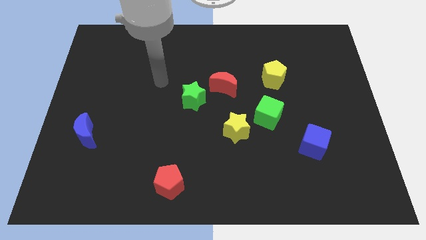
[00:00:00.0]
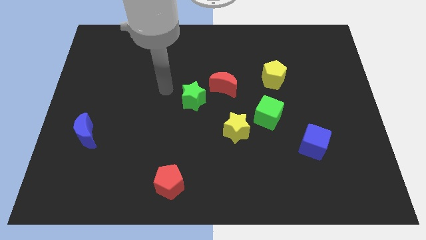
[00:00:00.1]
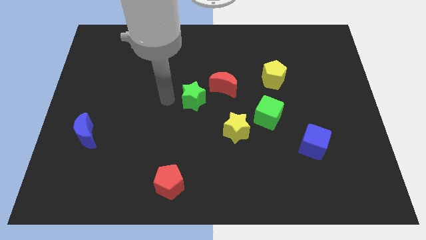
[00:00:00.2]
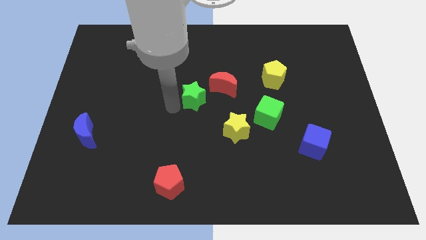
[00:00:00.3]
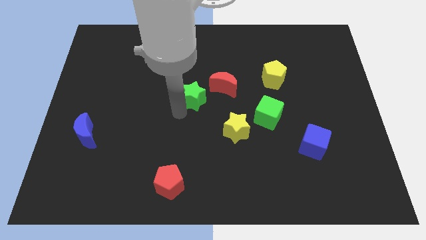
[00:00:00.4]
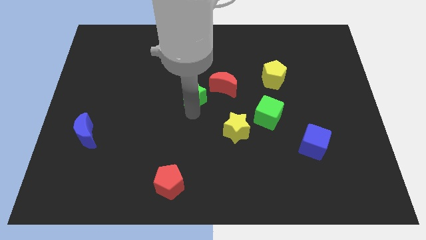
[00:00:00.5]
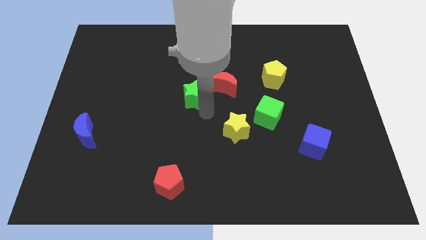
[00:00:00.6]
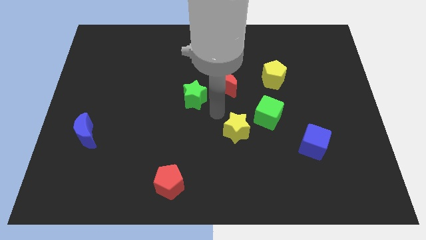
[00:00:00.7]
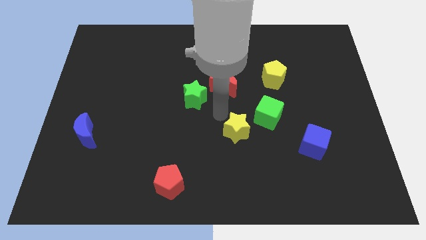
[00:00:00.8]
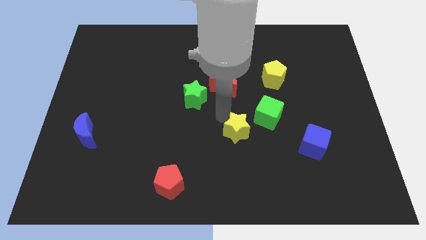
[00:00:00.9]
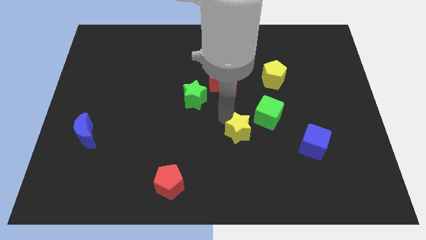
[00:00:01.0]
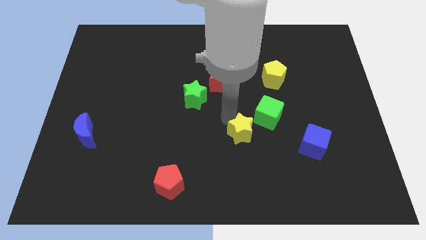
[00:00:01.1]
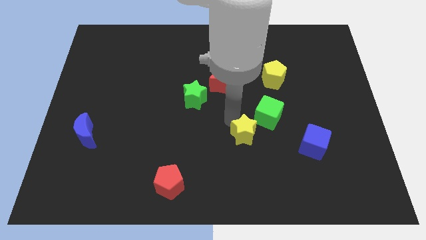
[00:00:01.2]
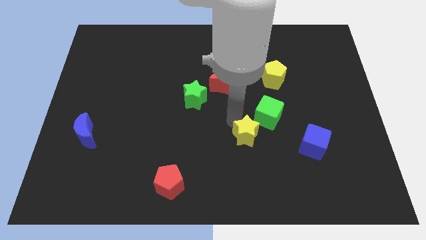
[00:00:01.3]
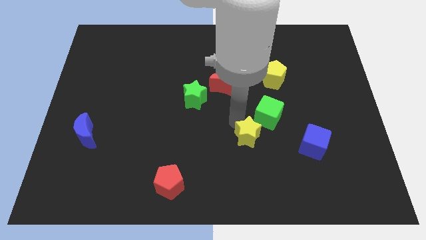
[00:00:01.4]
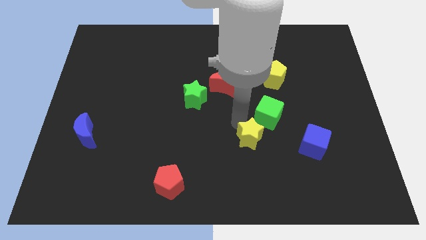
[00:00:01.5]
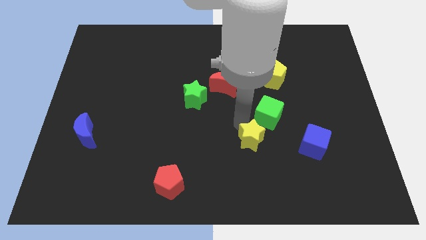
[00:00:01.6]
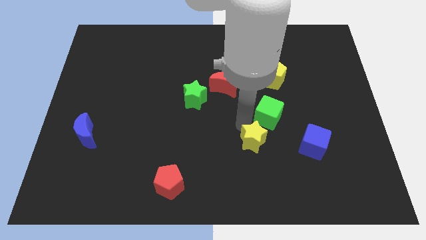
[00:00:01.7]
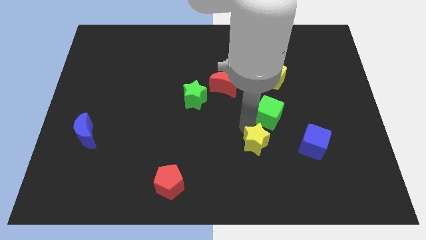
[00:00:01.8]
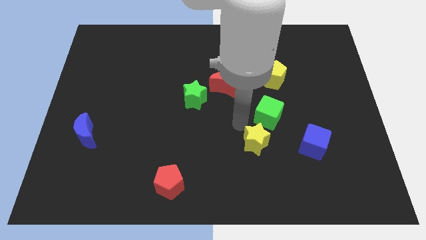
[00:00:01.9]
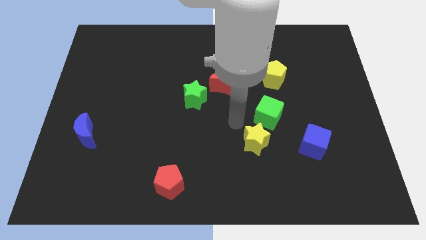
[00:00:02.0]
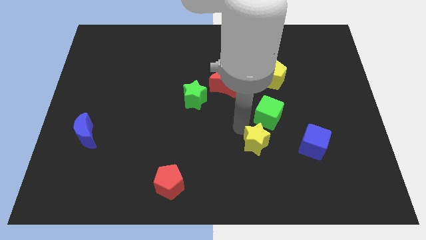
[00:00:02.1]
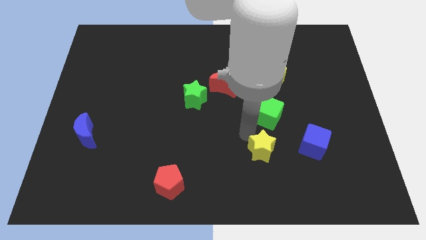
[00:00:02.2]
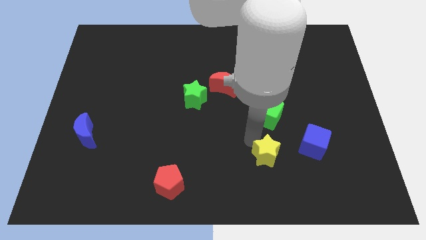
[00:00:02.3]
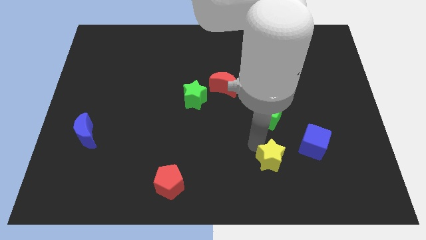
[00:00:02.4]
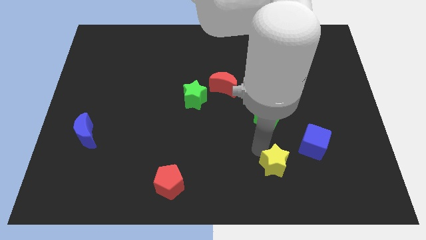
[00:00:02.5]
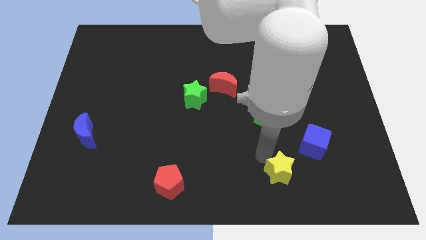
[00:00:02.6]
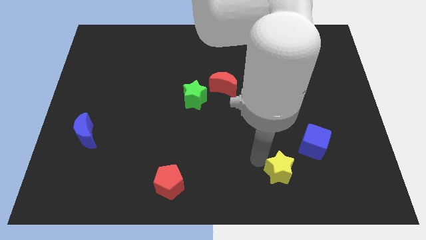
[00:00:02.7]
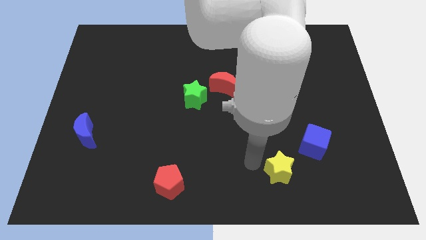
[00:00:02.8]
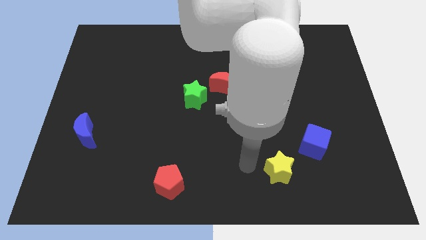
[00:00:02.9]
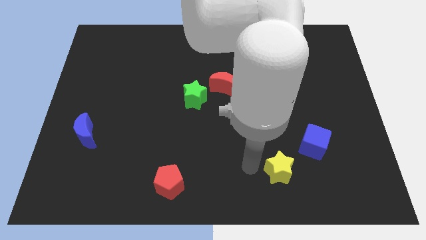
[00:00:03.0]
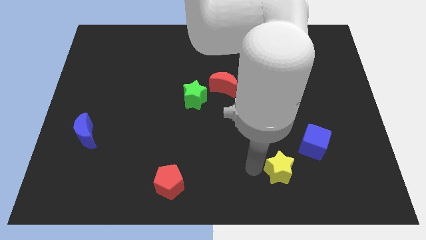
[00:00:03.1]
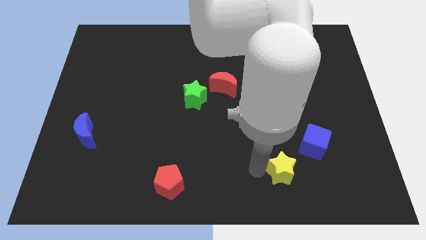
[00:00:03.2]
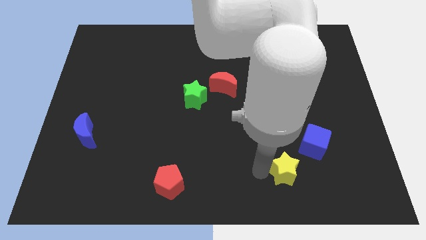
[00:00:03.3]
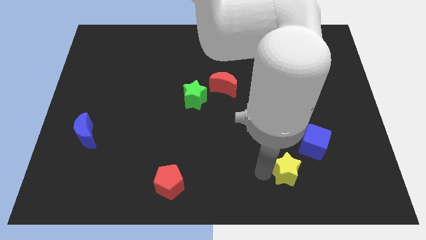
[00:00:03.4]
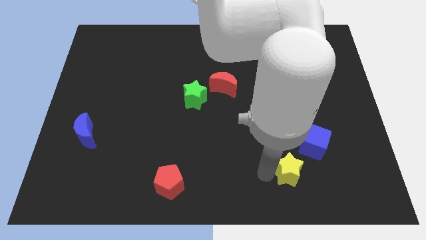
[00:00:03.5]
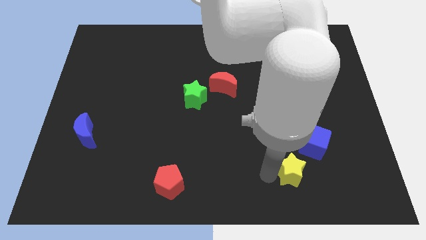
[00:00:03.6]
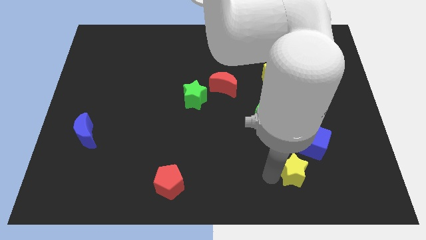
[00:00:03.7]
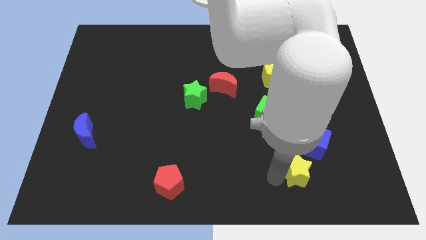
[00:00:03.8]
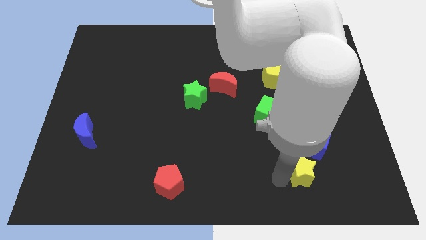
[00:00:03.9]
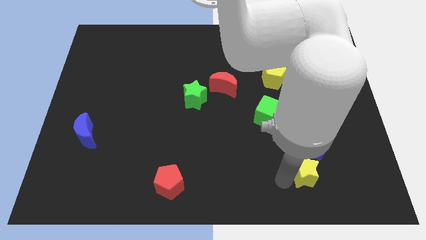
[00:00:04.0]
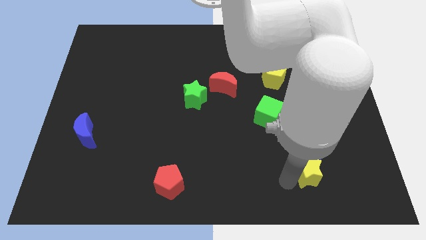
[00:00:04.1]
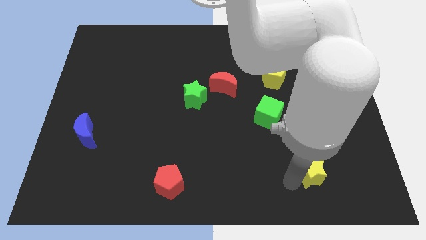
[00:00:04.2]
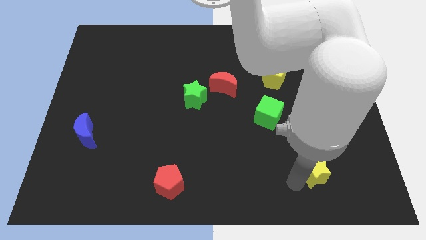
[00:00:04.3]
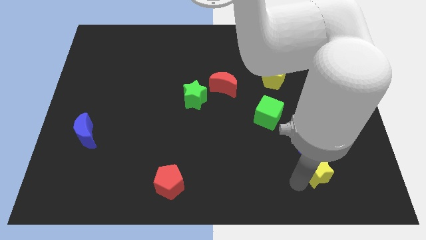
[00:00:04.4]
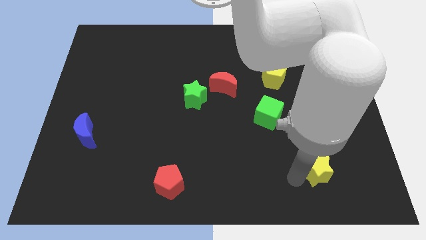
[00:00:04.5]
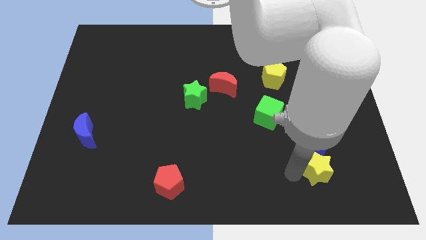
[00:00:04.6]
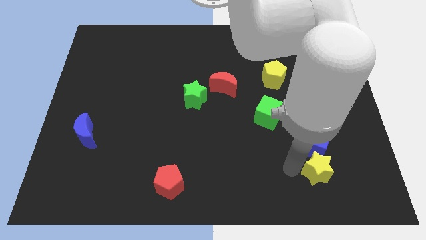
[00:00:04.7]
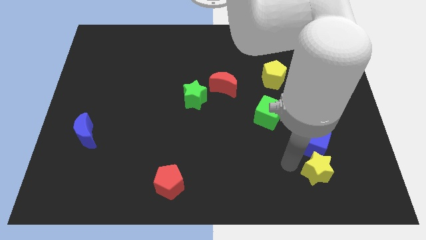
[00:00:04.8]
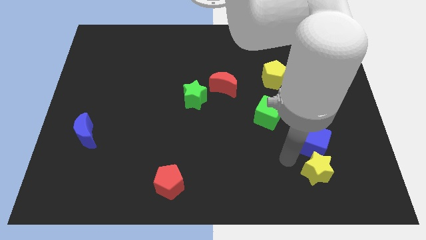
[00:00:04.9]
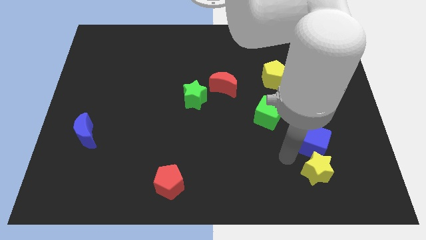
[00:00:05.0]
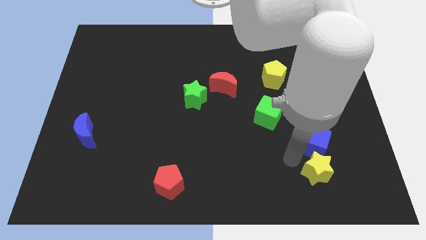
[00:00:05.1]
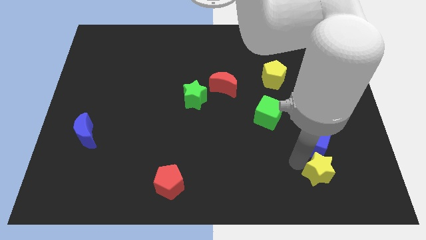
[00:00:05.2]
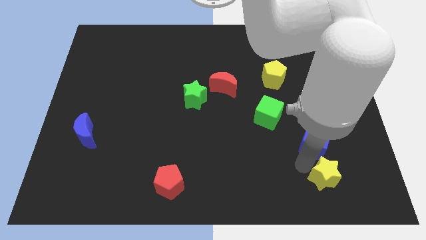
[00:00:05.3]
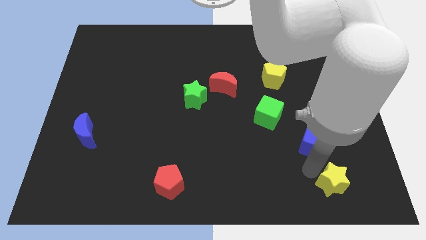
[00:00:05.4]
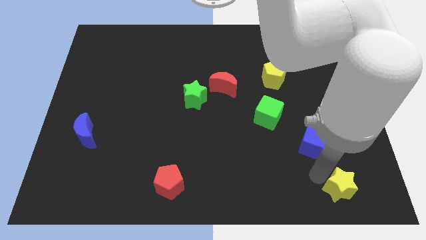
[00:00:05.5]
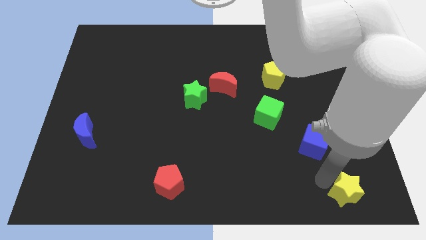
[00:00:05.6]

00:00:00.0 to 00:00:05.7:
put the yellow star to the bottom right of the board

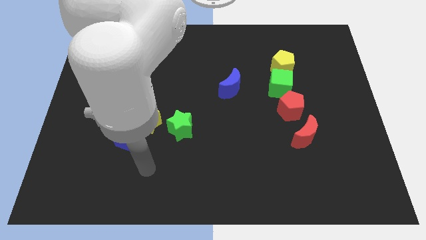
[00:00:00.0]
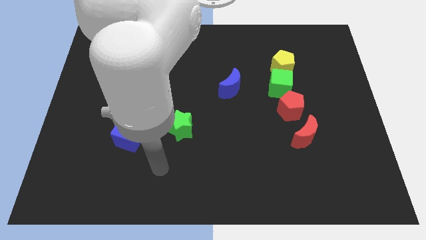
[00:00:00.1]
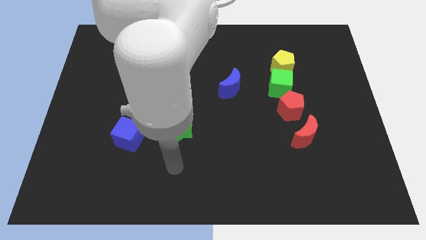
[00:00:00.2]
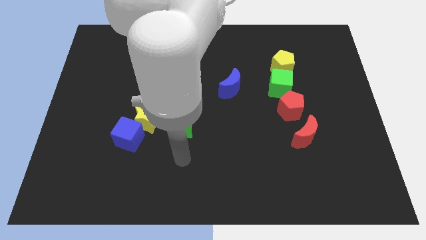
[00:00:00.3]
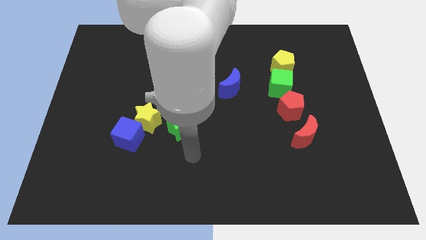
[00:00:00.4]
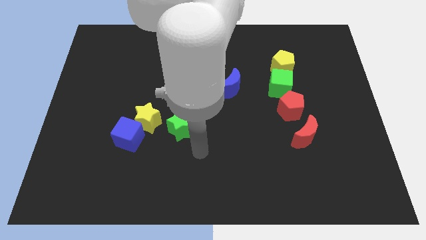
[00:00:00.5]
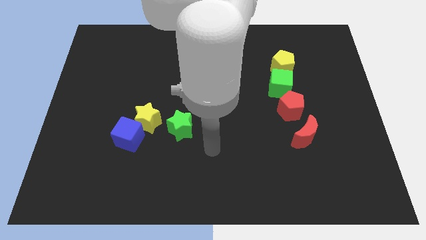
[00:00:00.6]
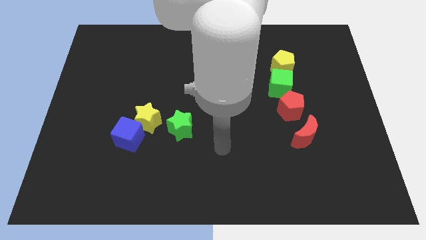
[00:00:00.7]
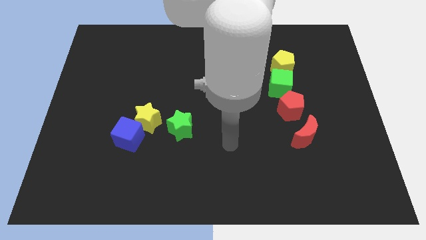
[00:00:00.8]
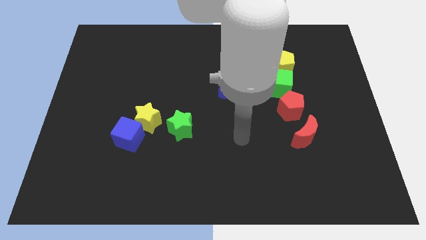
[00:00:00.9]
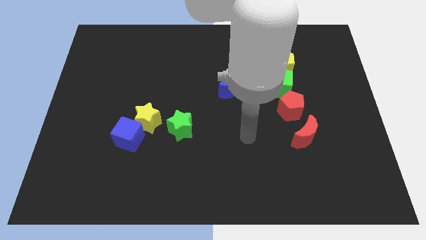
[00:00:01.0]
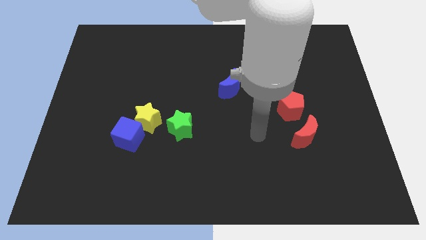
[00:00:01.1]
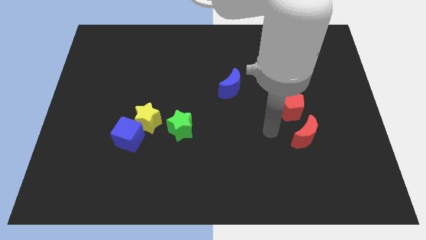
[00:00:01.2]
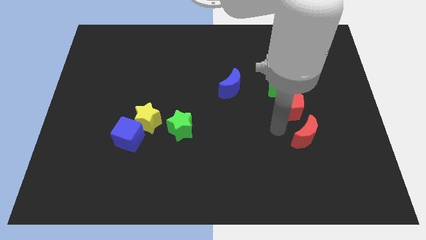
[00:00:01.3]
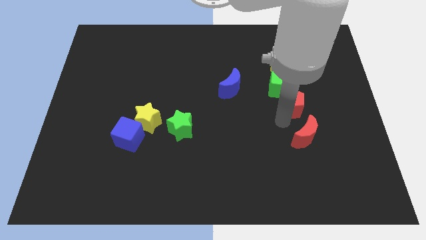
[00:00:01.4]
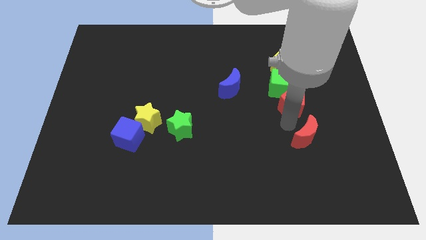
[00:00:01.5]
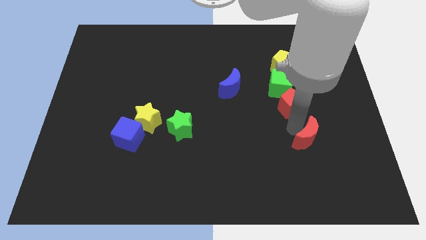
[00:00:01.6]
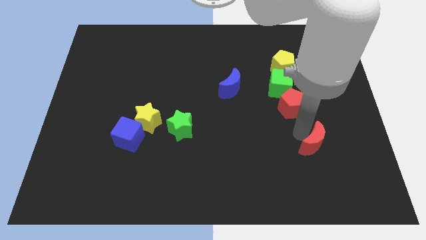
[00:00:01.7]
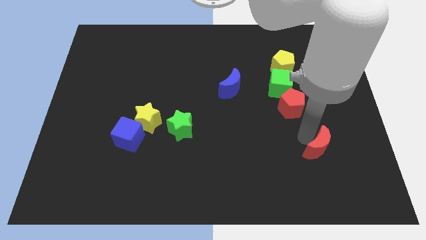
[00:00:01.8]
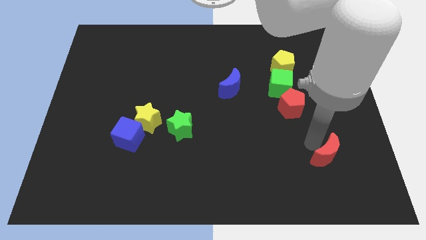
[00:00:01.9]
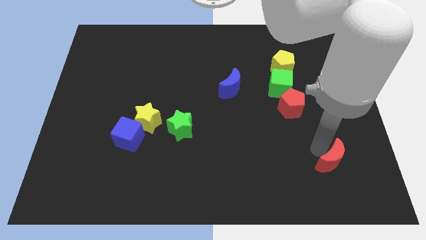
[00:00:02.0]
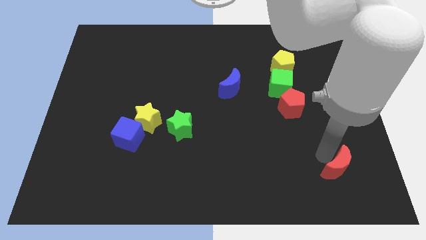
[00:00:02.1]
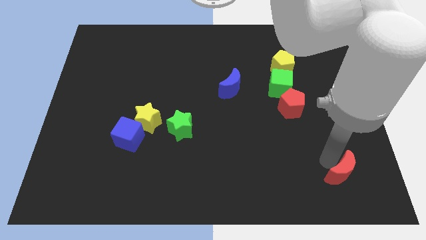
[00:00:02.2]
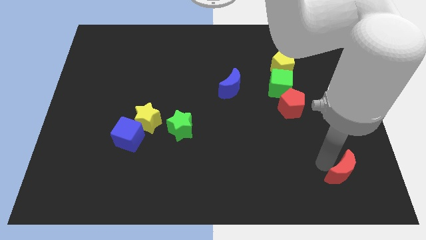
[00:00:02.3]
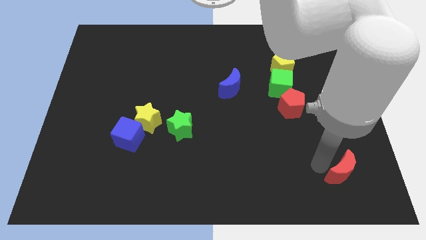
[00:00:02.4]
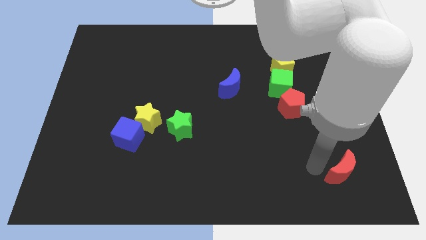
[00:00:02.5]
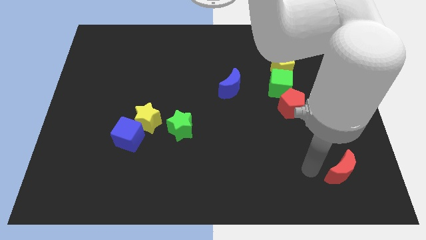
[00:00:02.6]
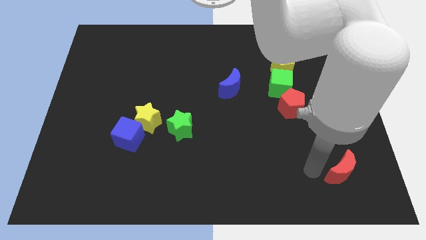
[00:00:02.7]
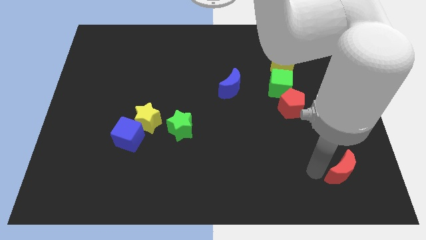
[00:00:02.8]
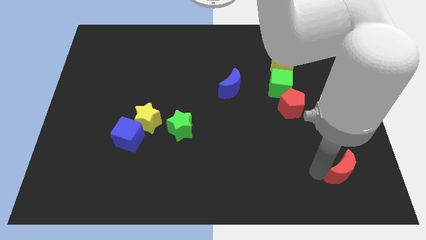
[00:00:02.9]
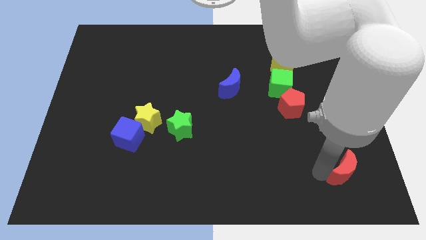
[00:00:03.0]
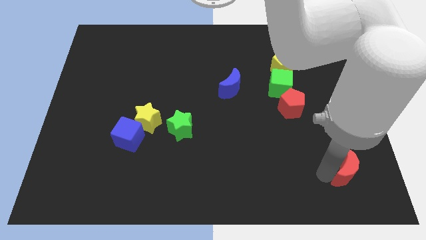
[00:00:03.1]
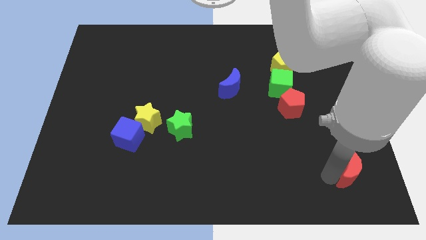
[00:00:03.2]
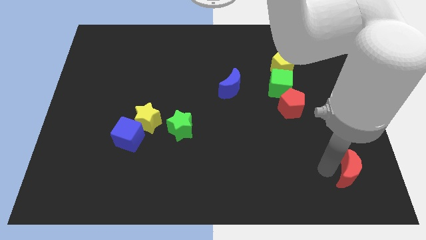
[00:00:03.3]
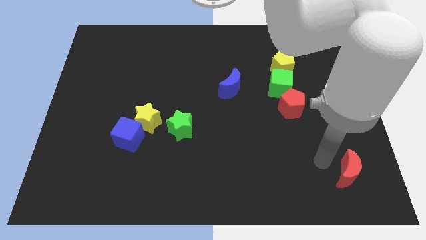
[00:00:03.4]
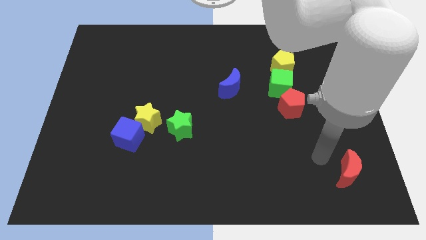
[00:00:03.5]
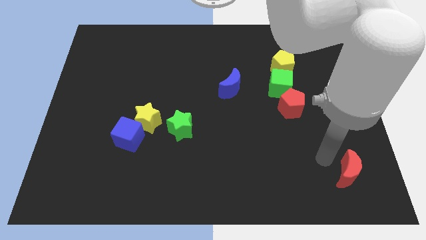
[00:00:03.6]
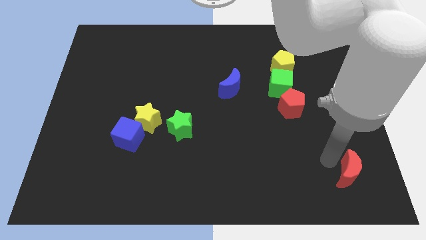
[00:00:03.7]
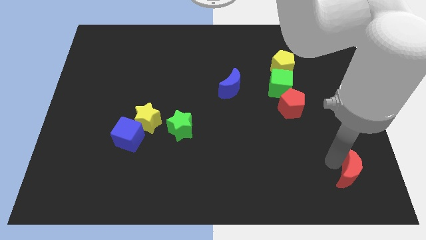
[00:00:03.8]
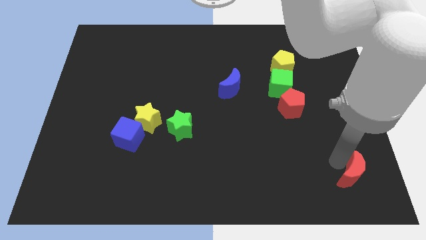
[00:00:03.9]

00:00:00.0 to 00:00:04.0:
push the red moon to the bottom right corner
